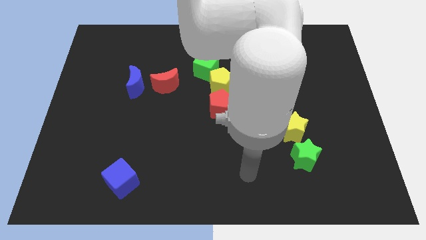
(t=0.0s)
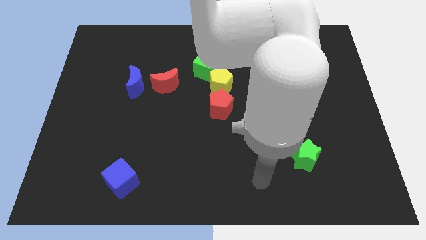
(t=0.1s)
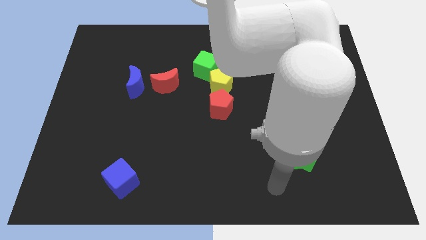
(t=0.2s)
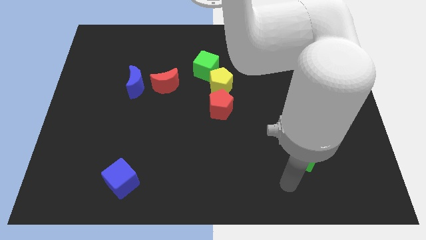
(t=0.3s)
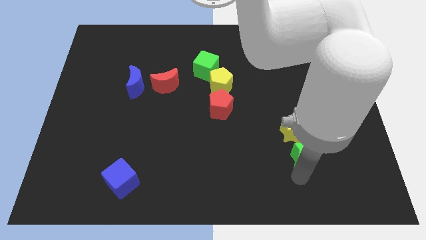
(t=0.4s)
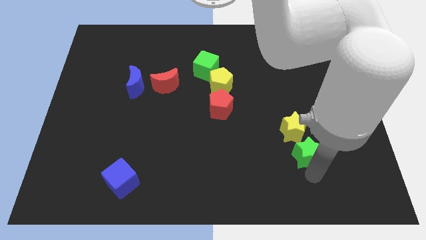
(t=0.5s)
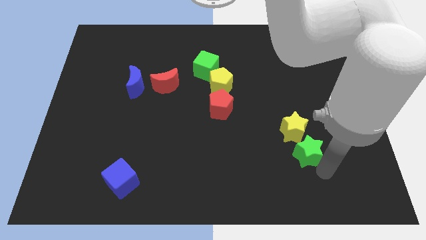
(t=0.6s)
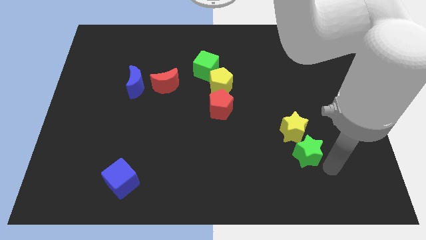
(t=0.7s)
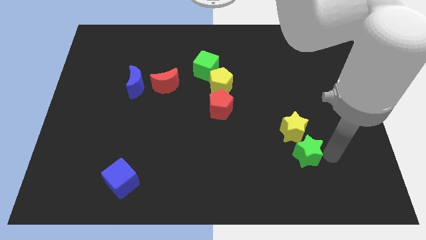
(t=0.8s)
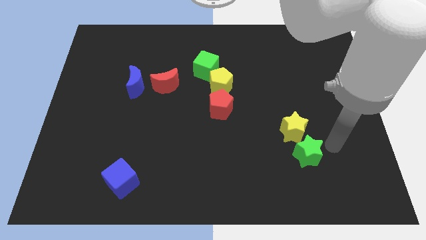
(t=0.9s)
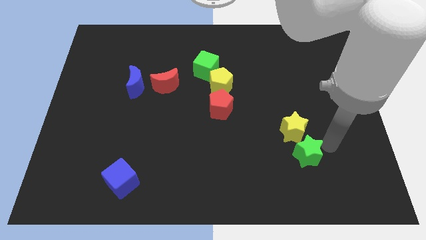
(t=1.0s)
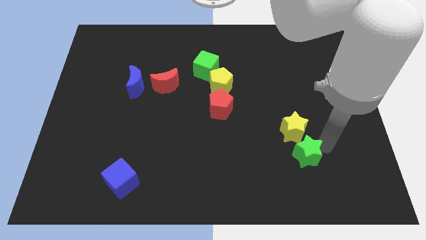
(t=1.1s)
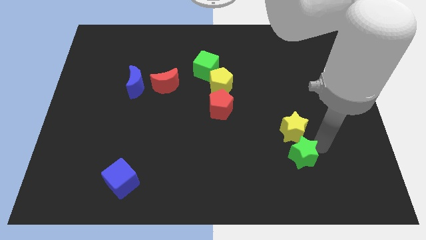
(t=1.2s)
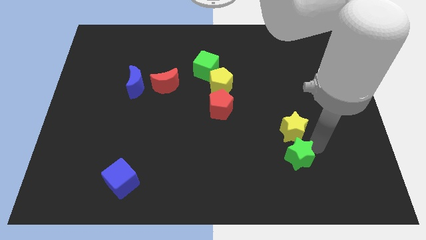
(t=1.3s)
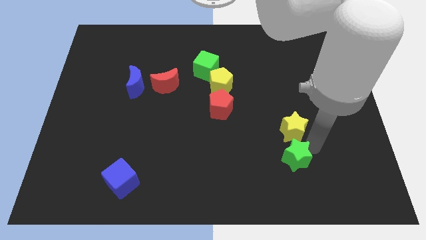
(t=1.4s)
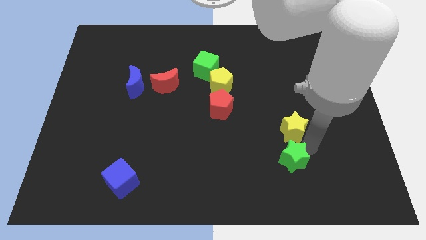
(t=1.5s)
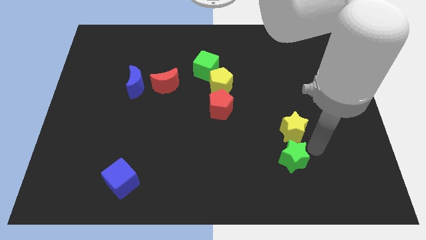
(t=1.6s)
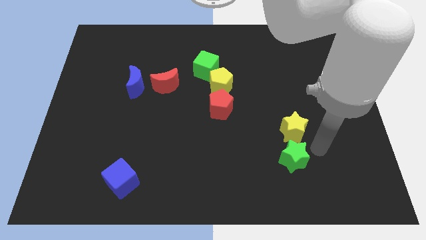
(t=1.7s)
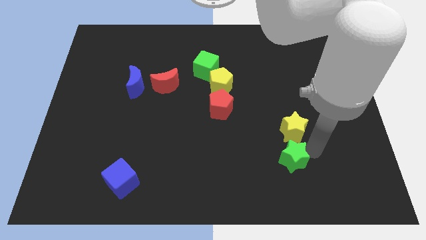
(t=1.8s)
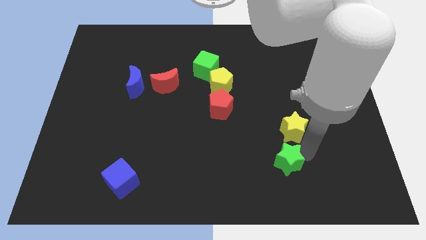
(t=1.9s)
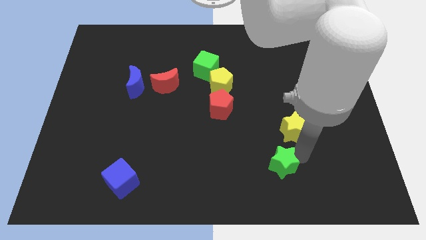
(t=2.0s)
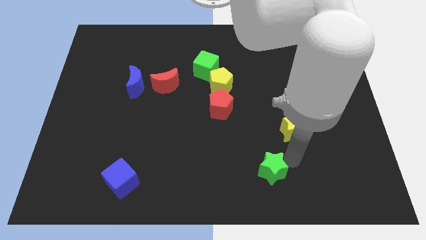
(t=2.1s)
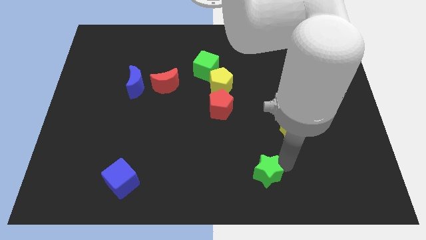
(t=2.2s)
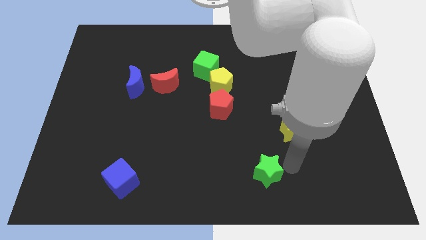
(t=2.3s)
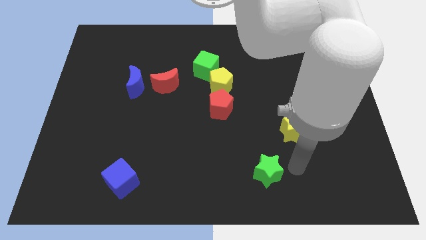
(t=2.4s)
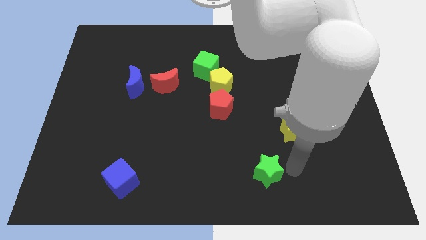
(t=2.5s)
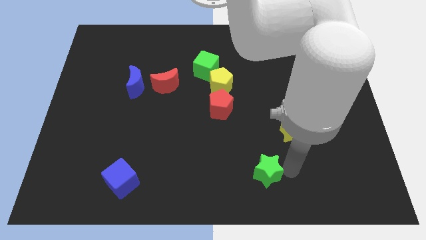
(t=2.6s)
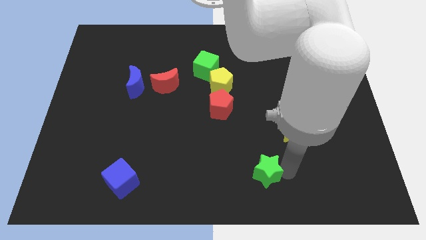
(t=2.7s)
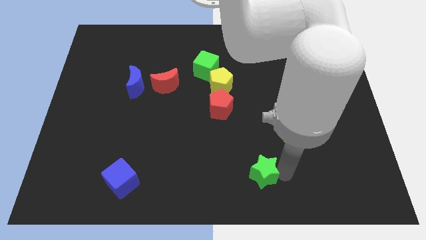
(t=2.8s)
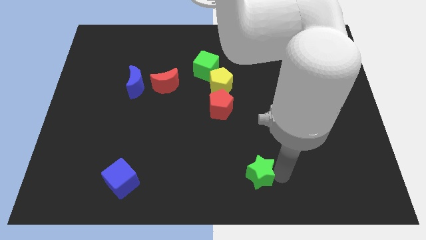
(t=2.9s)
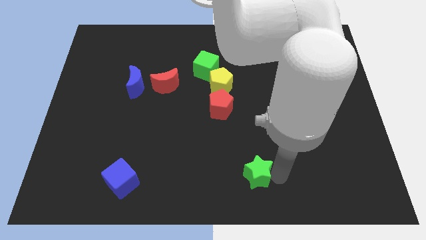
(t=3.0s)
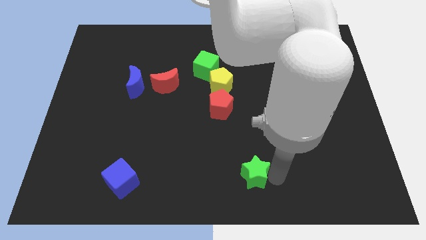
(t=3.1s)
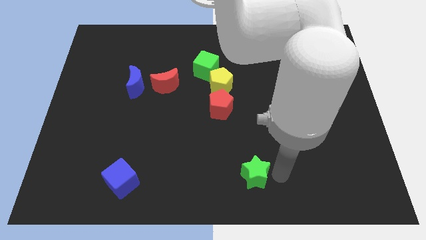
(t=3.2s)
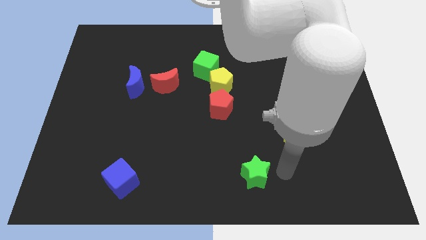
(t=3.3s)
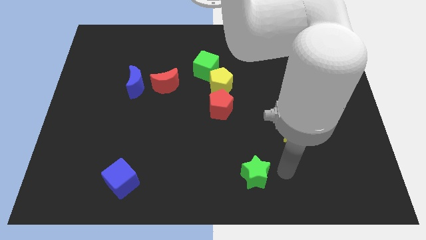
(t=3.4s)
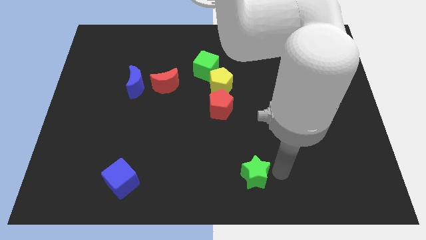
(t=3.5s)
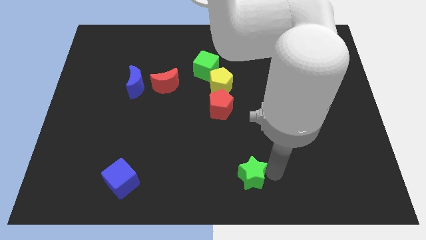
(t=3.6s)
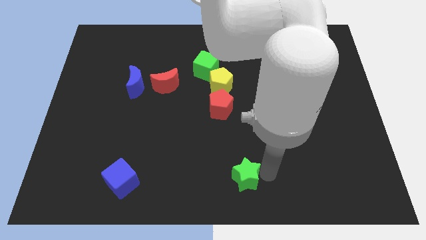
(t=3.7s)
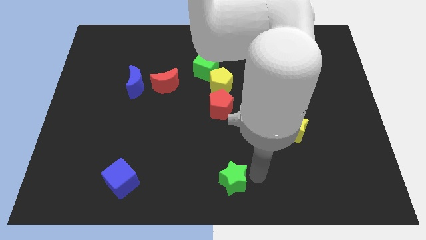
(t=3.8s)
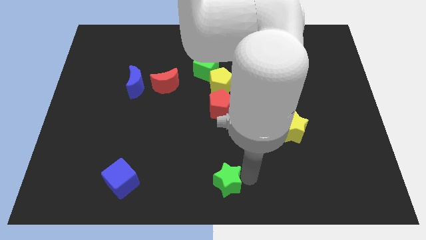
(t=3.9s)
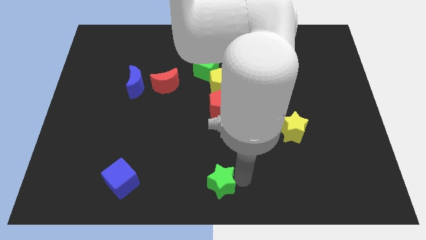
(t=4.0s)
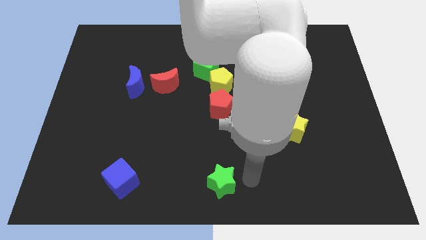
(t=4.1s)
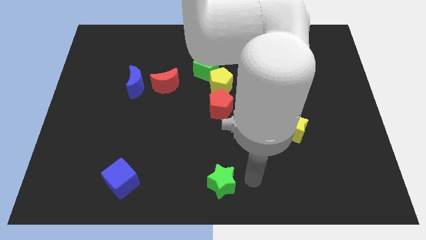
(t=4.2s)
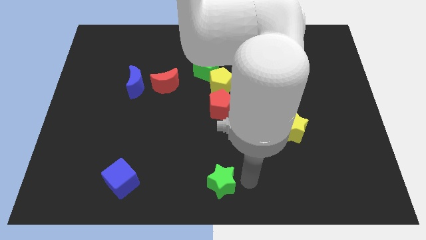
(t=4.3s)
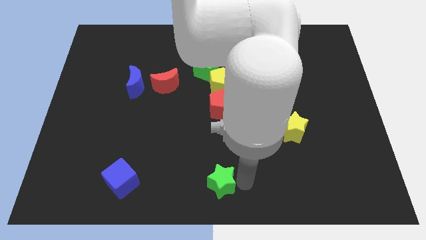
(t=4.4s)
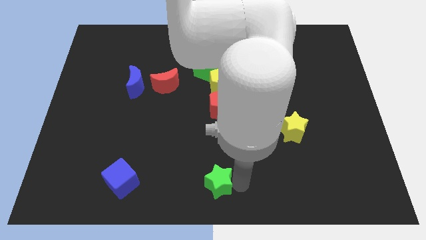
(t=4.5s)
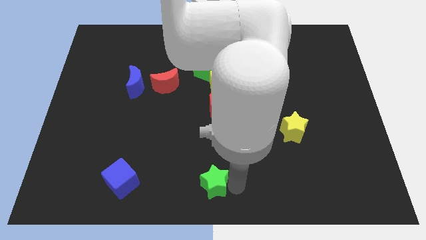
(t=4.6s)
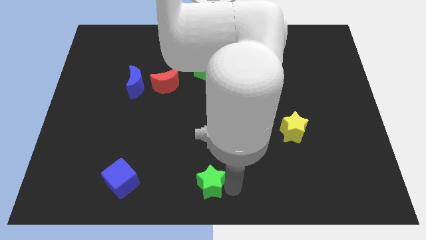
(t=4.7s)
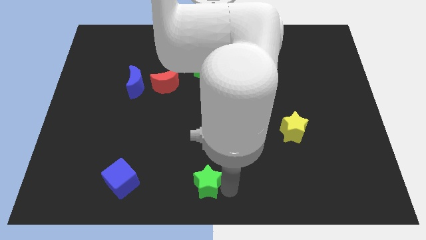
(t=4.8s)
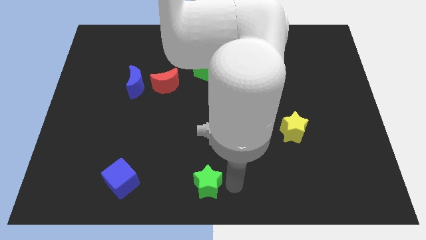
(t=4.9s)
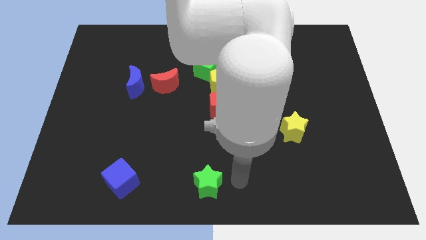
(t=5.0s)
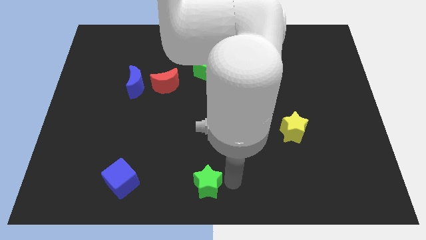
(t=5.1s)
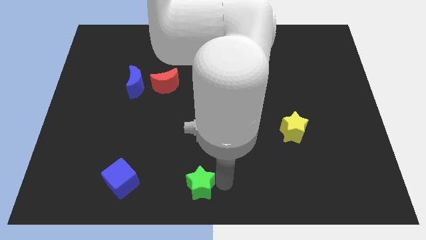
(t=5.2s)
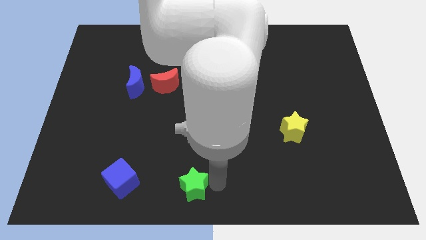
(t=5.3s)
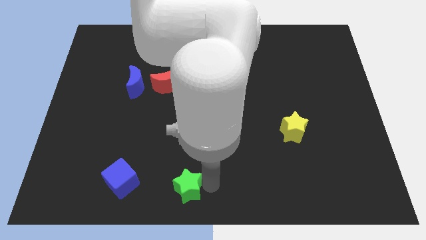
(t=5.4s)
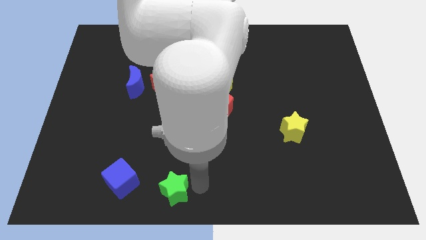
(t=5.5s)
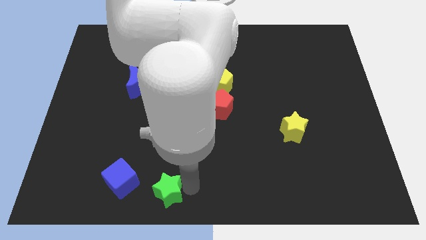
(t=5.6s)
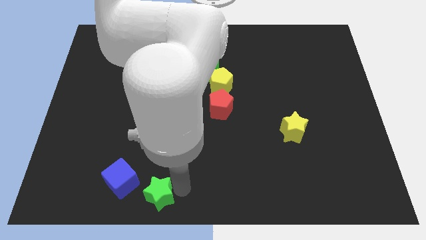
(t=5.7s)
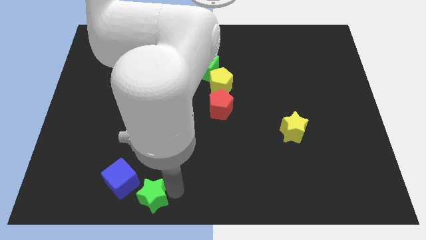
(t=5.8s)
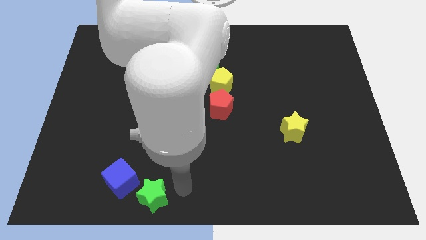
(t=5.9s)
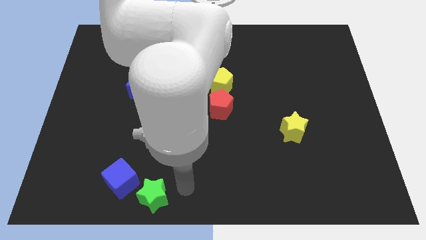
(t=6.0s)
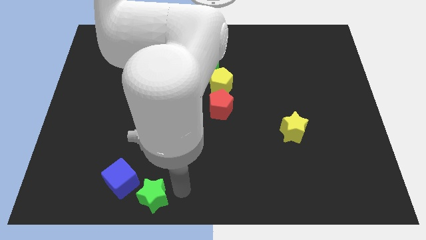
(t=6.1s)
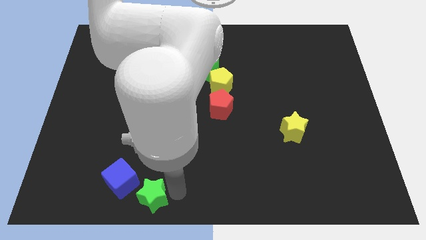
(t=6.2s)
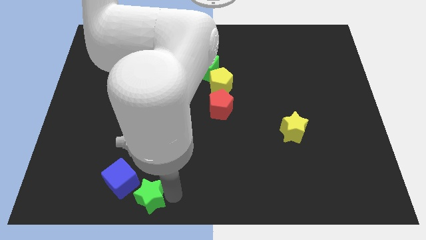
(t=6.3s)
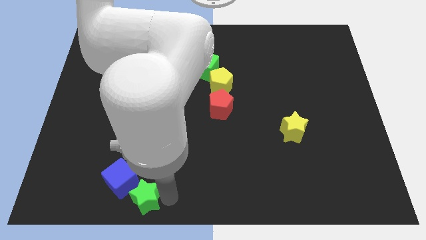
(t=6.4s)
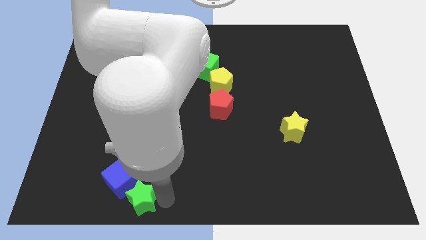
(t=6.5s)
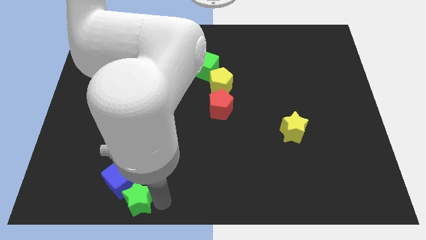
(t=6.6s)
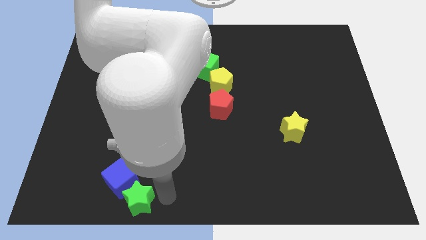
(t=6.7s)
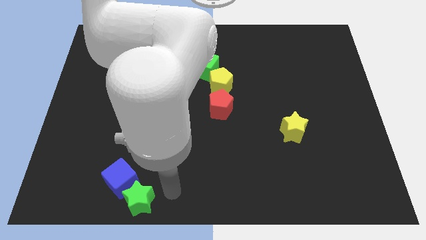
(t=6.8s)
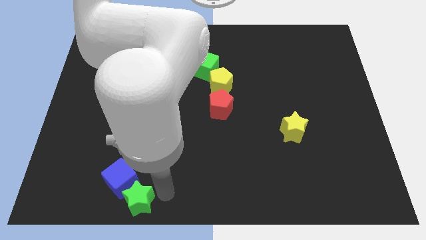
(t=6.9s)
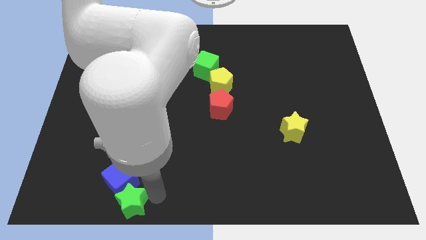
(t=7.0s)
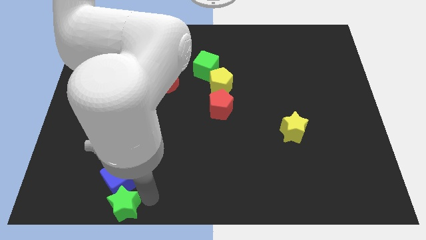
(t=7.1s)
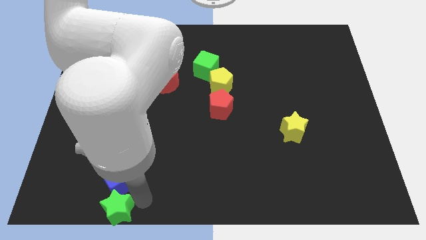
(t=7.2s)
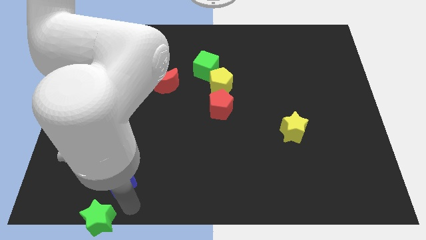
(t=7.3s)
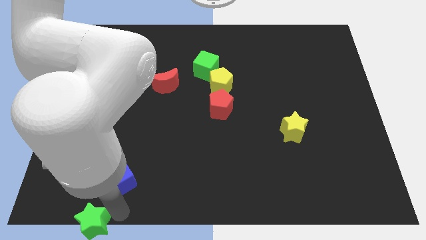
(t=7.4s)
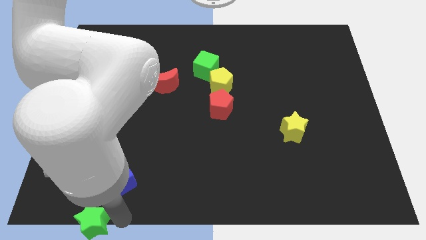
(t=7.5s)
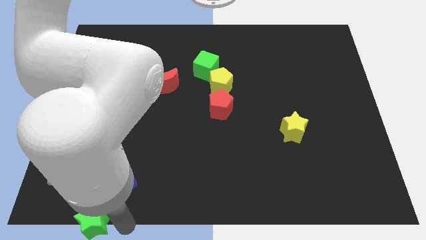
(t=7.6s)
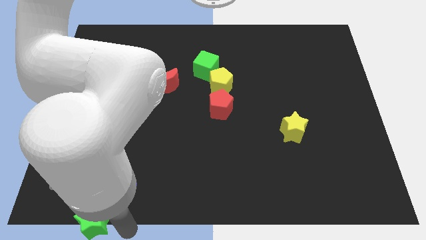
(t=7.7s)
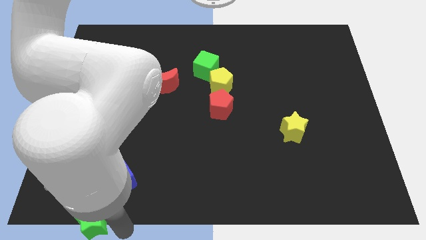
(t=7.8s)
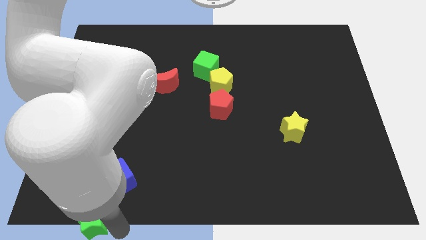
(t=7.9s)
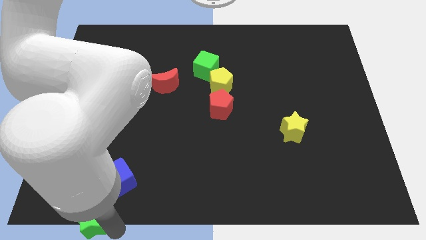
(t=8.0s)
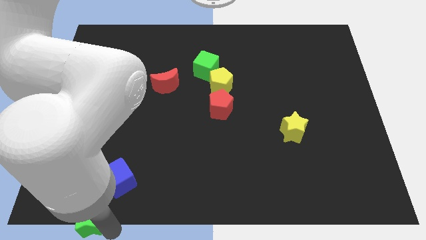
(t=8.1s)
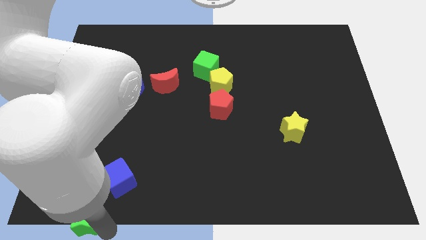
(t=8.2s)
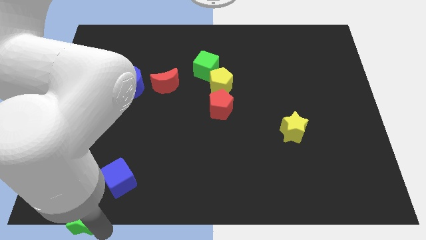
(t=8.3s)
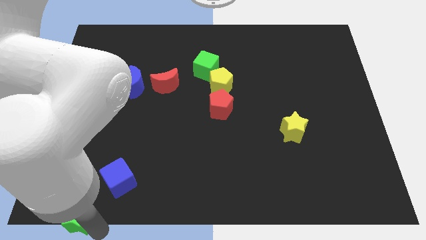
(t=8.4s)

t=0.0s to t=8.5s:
move the green star to the bottom left of the board
